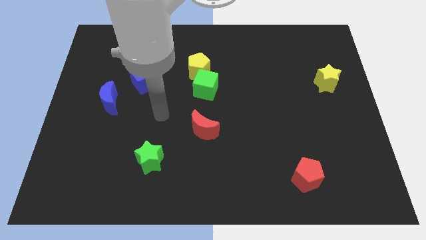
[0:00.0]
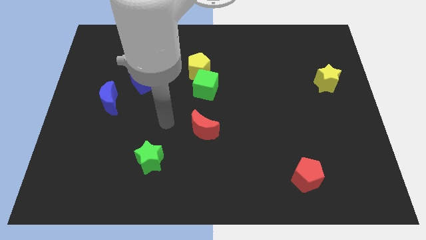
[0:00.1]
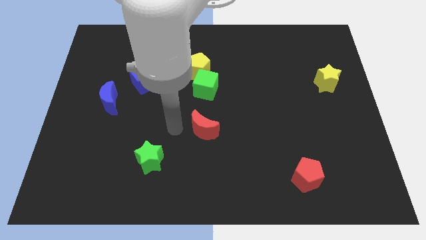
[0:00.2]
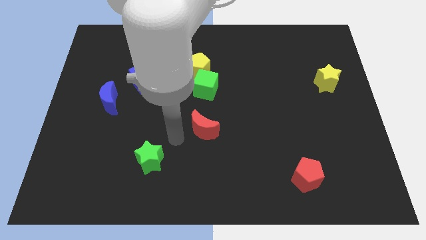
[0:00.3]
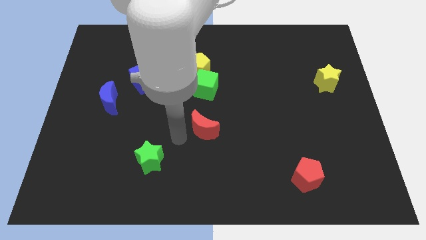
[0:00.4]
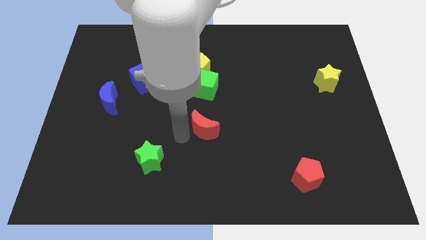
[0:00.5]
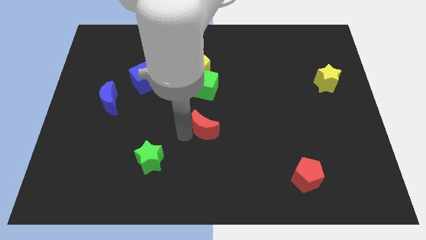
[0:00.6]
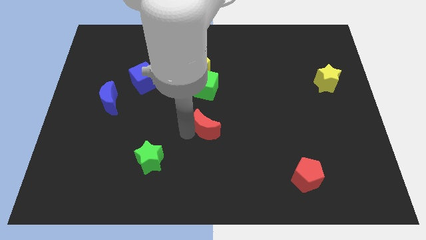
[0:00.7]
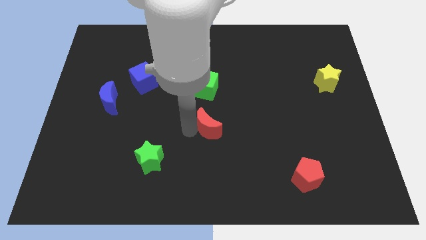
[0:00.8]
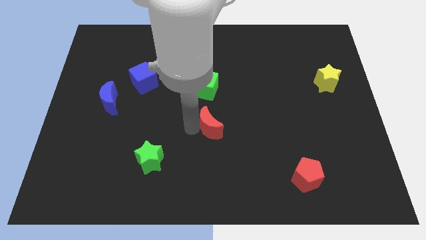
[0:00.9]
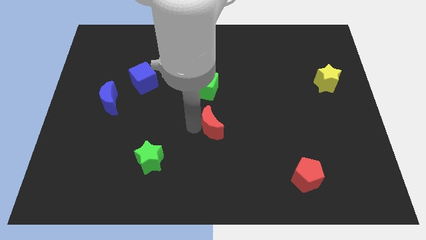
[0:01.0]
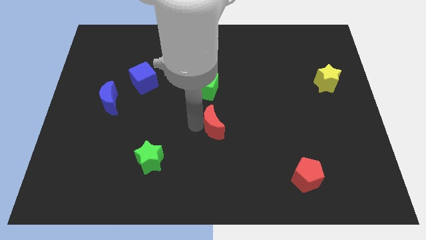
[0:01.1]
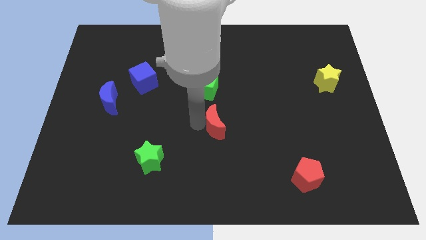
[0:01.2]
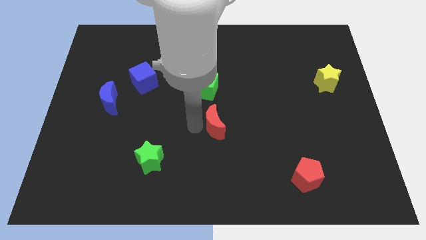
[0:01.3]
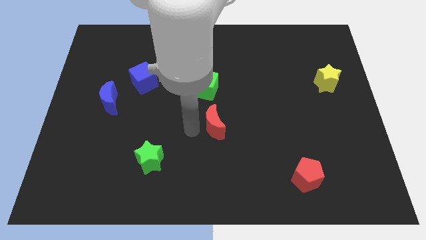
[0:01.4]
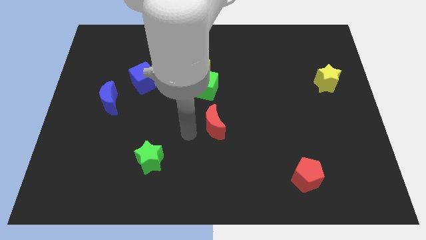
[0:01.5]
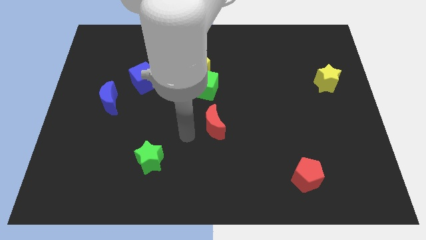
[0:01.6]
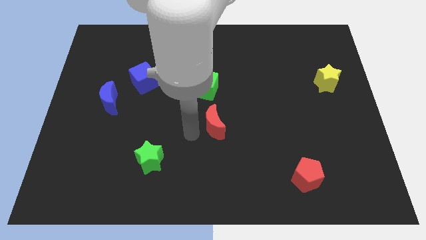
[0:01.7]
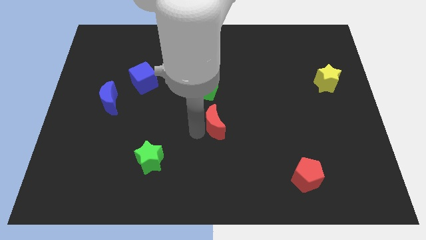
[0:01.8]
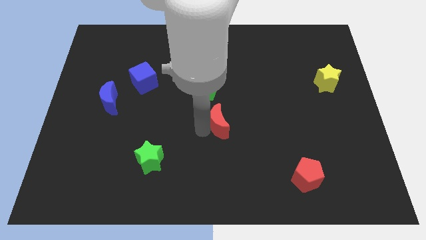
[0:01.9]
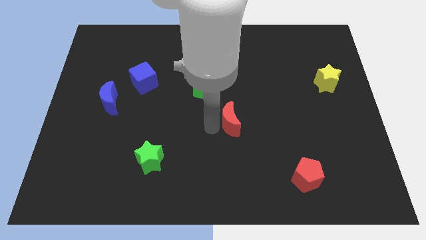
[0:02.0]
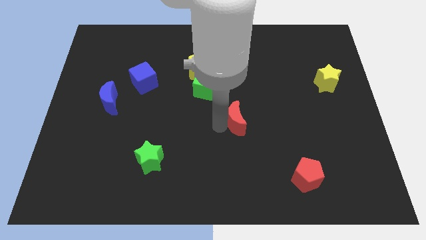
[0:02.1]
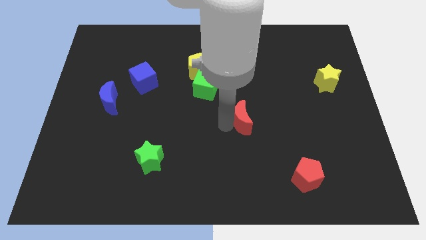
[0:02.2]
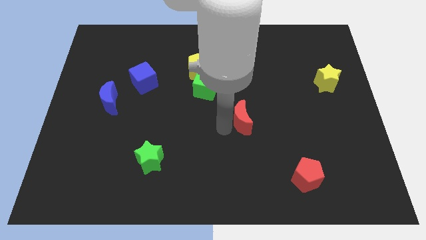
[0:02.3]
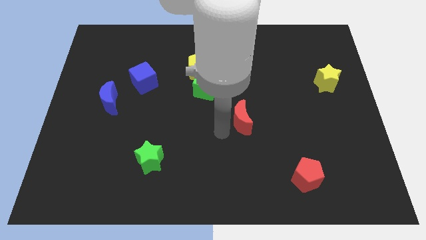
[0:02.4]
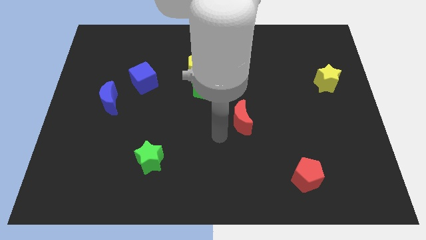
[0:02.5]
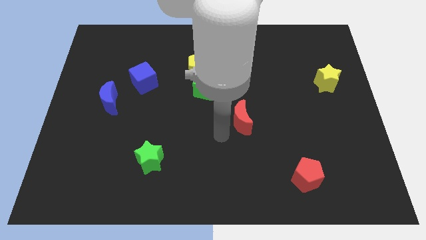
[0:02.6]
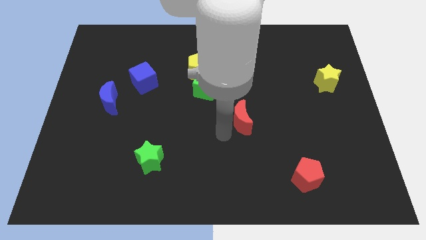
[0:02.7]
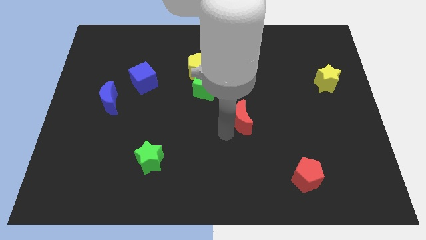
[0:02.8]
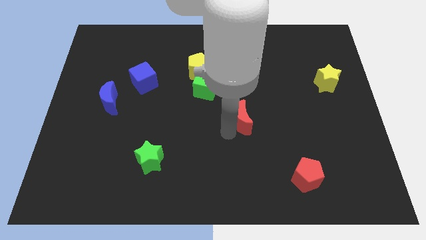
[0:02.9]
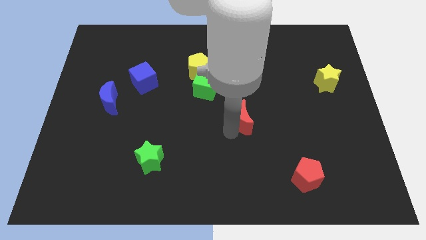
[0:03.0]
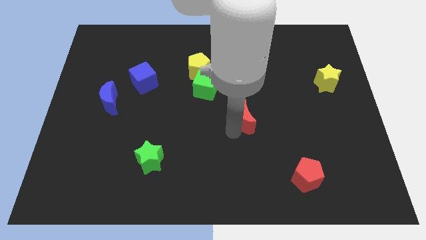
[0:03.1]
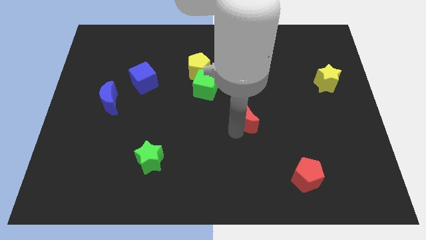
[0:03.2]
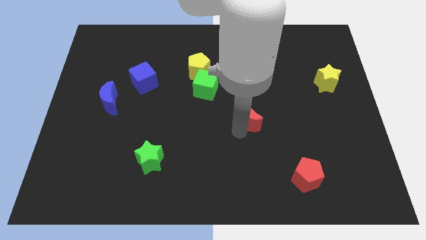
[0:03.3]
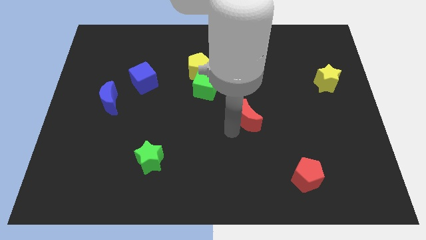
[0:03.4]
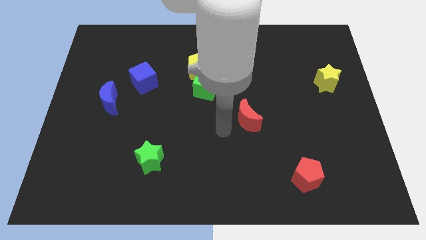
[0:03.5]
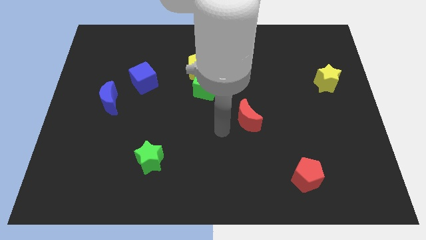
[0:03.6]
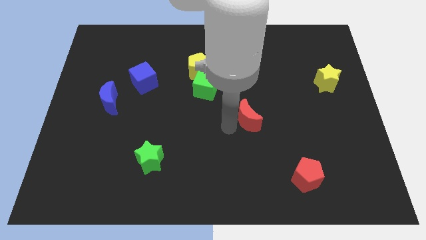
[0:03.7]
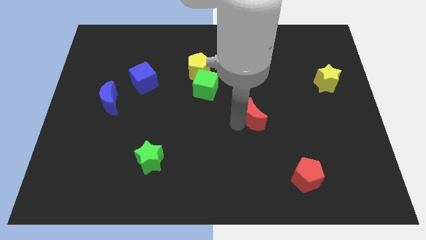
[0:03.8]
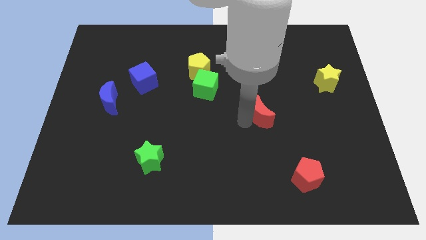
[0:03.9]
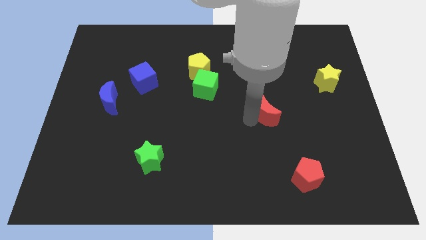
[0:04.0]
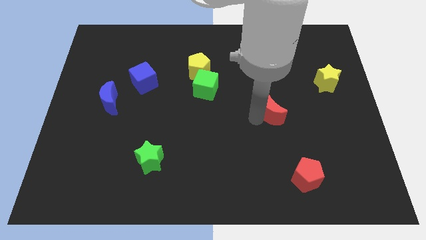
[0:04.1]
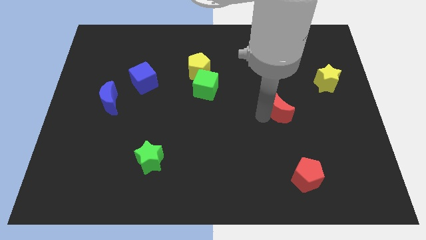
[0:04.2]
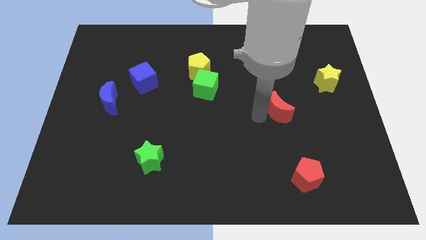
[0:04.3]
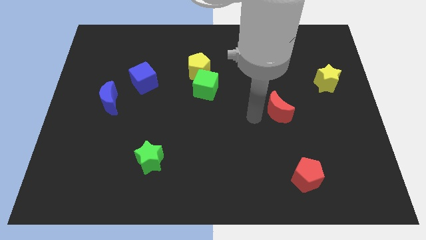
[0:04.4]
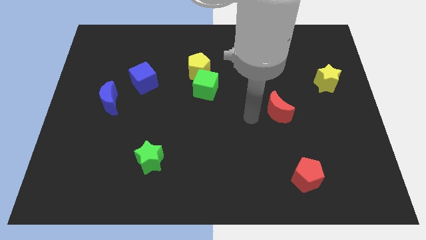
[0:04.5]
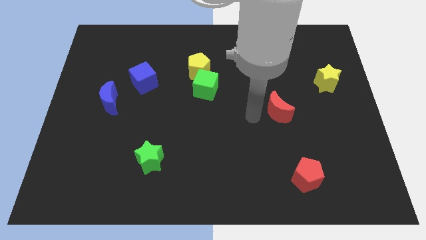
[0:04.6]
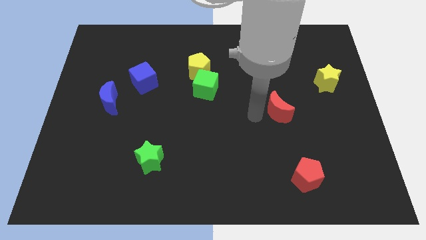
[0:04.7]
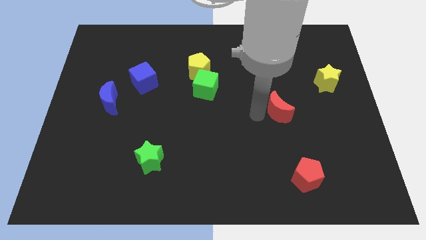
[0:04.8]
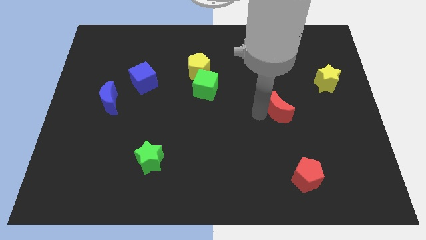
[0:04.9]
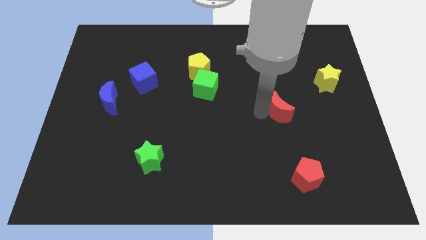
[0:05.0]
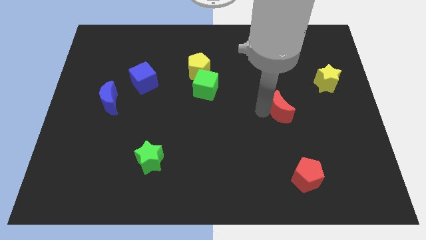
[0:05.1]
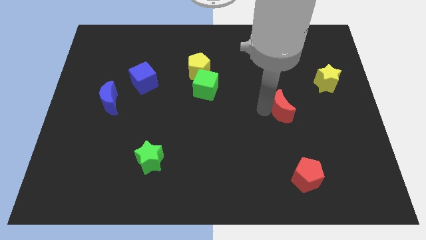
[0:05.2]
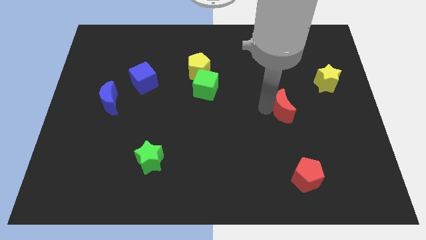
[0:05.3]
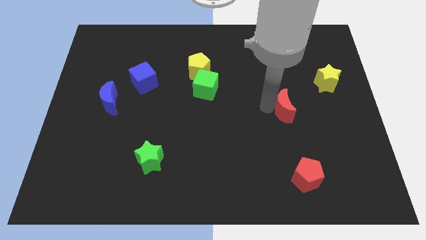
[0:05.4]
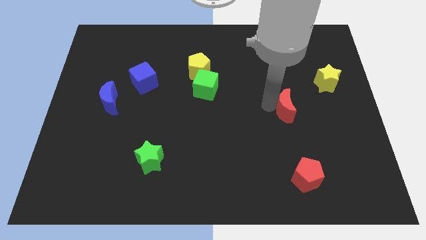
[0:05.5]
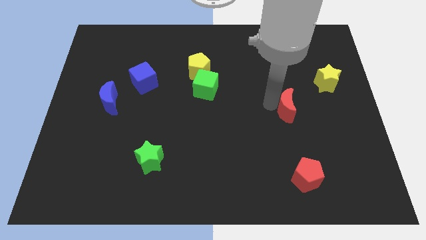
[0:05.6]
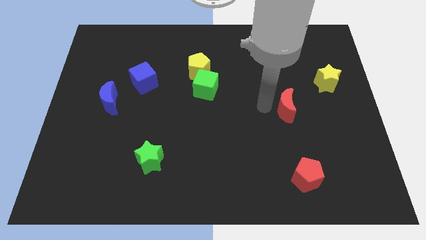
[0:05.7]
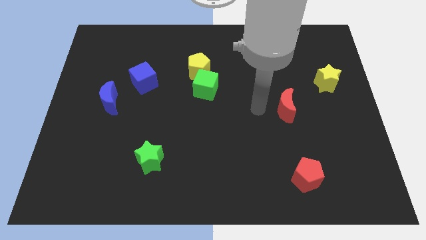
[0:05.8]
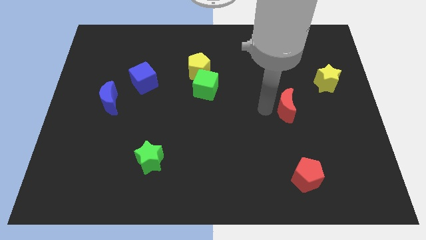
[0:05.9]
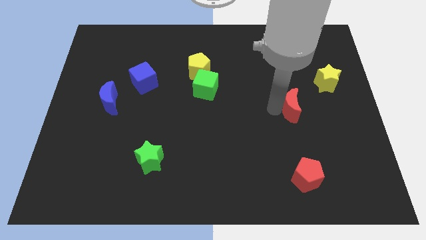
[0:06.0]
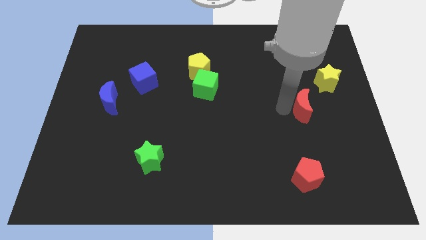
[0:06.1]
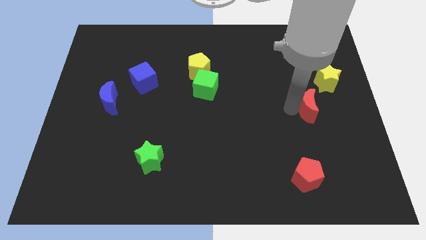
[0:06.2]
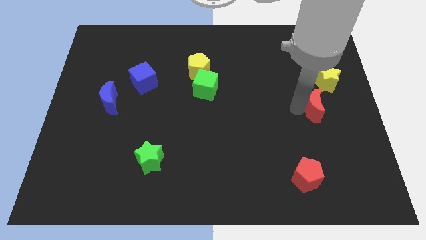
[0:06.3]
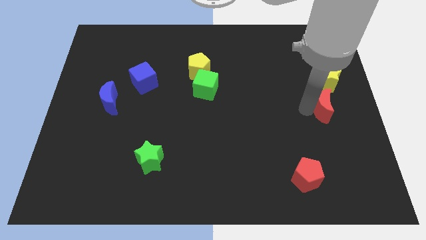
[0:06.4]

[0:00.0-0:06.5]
push the red moon to the right side
